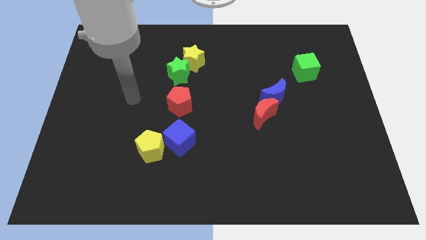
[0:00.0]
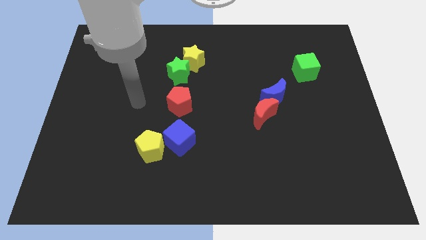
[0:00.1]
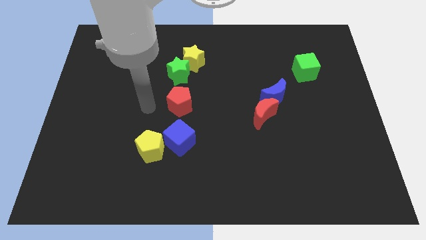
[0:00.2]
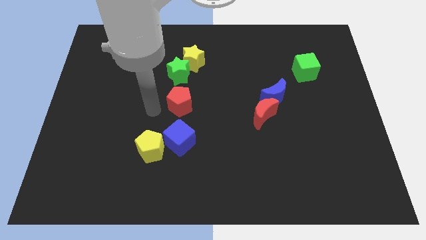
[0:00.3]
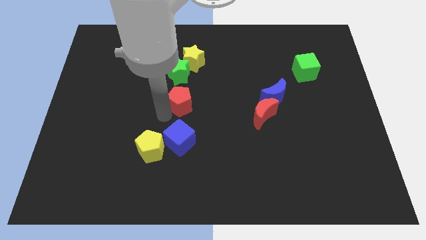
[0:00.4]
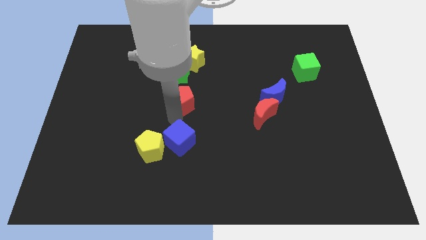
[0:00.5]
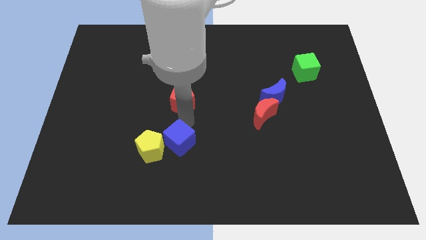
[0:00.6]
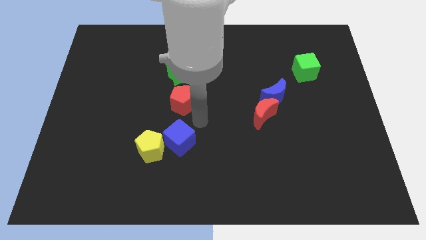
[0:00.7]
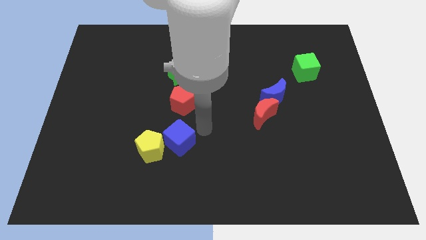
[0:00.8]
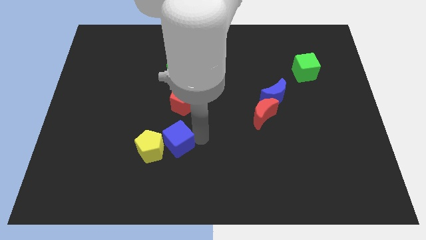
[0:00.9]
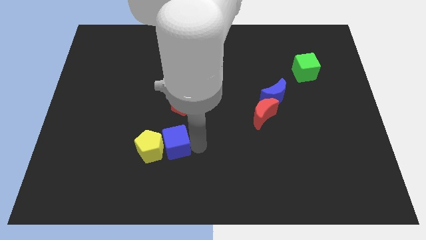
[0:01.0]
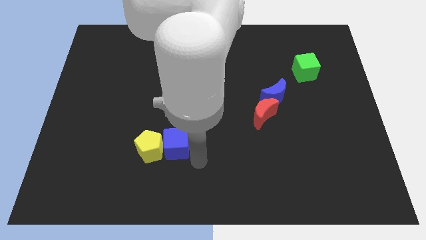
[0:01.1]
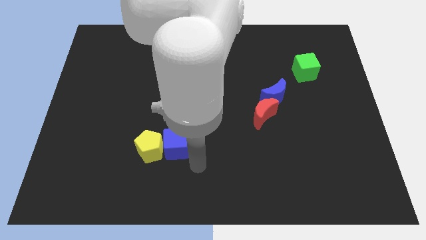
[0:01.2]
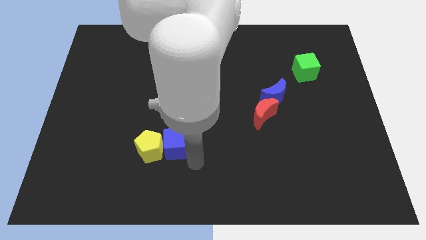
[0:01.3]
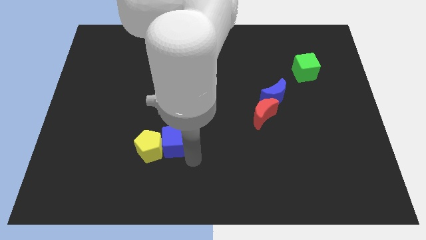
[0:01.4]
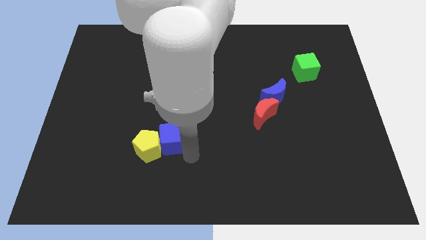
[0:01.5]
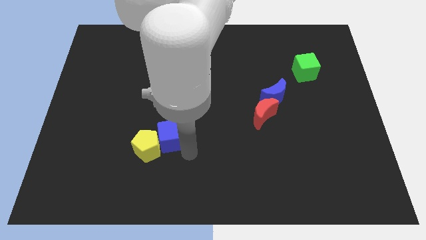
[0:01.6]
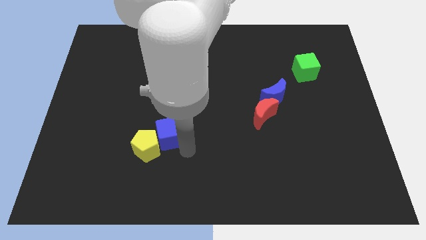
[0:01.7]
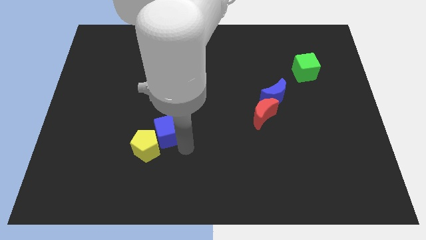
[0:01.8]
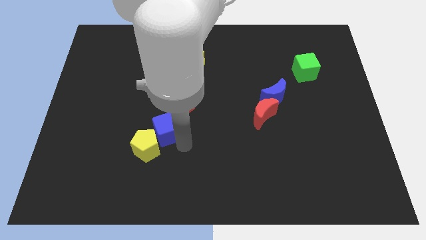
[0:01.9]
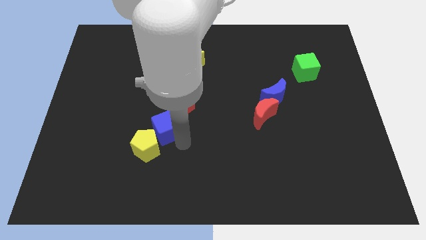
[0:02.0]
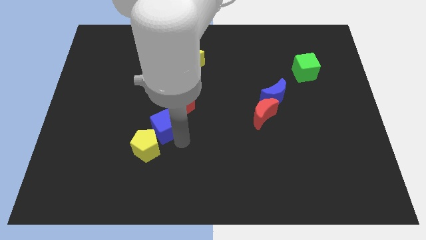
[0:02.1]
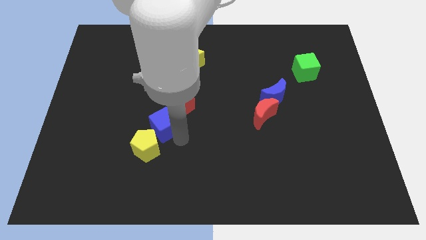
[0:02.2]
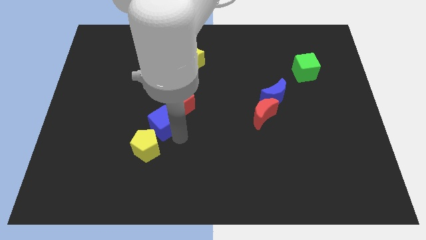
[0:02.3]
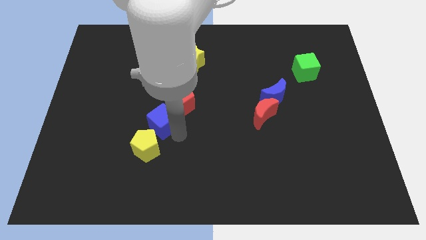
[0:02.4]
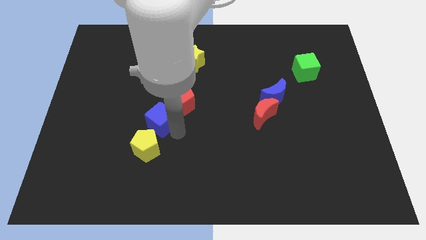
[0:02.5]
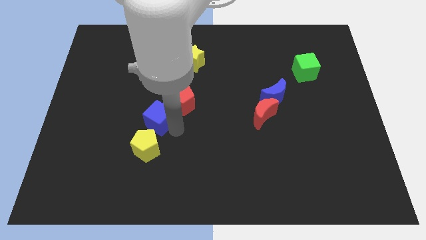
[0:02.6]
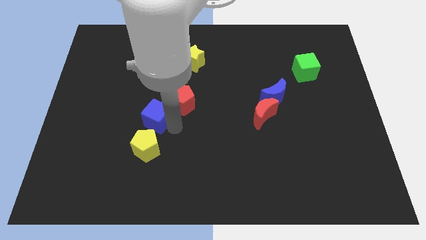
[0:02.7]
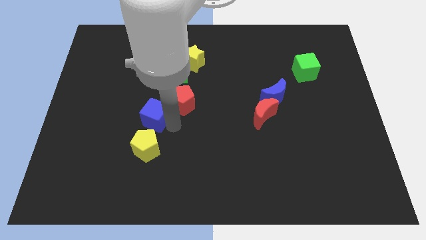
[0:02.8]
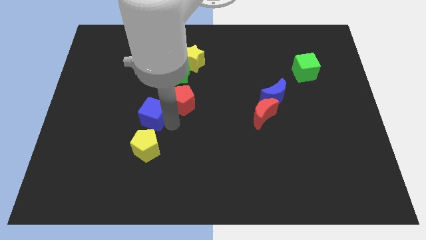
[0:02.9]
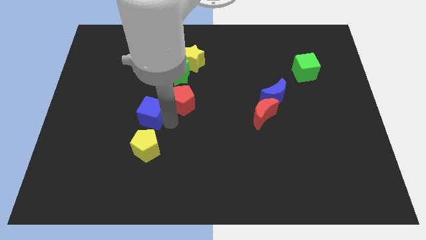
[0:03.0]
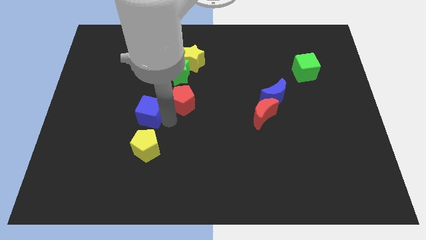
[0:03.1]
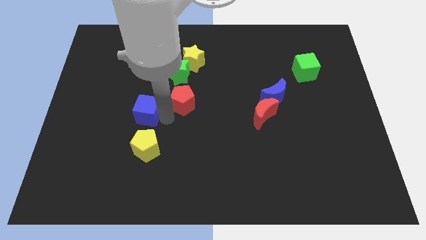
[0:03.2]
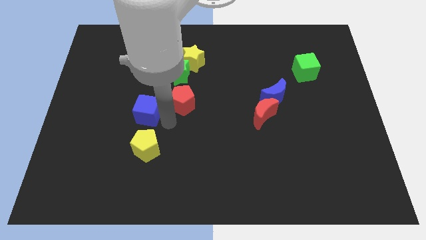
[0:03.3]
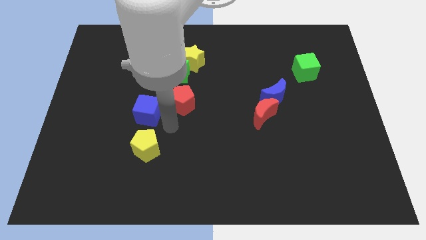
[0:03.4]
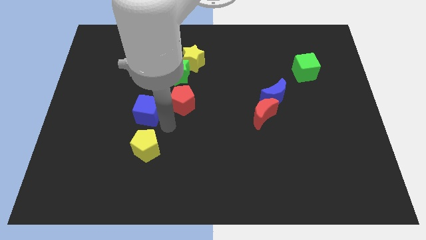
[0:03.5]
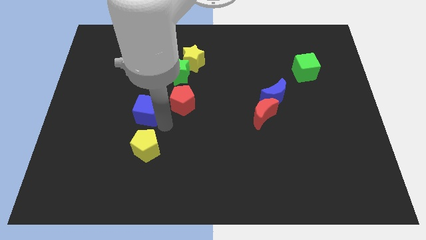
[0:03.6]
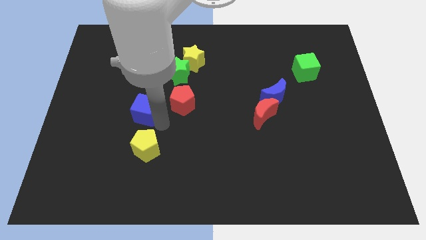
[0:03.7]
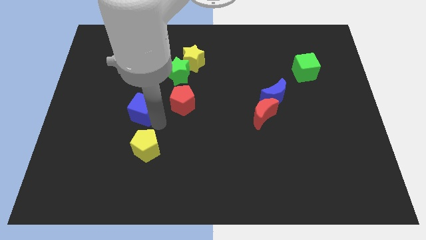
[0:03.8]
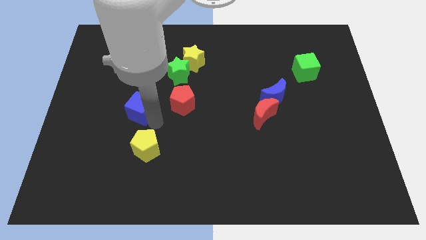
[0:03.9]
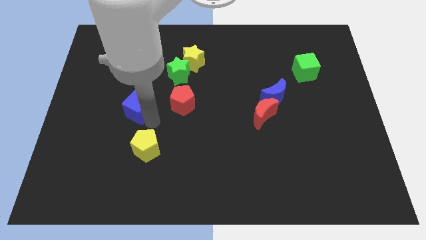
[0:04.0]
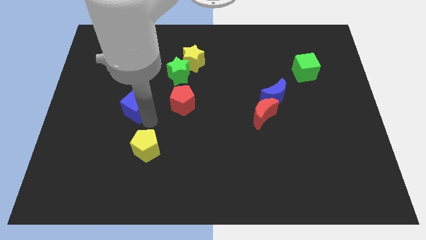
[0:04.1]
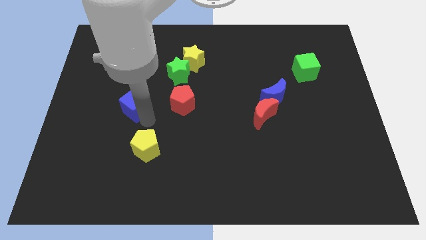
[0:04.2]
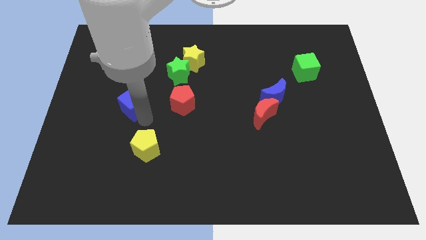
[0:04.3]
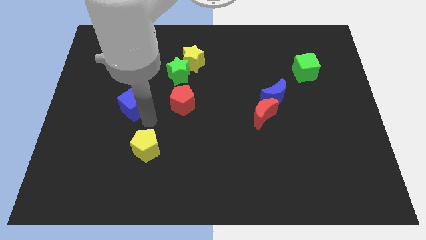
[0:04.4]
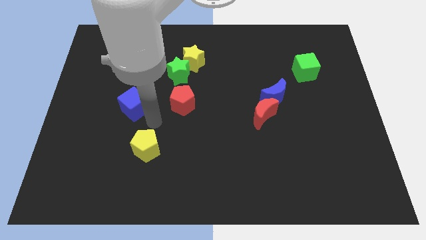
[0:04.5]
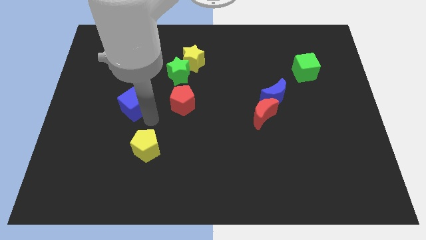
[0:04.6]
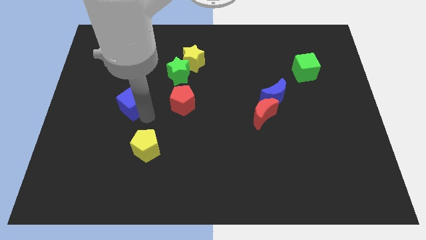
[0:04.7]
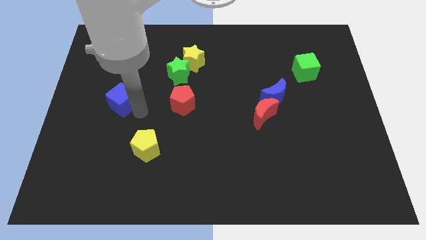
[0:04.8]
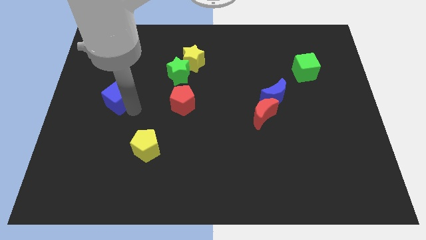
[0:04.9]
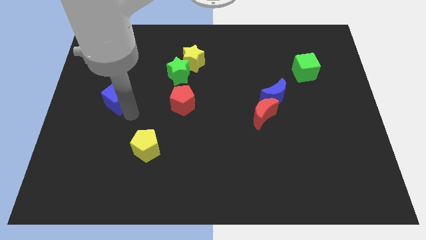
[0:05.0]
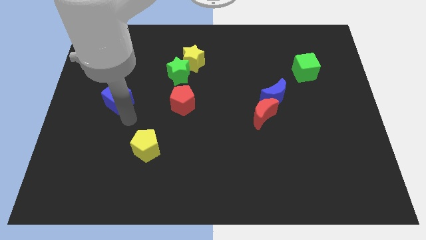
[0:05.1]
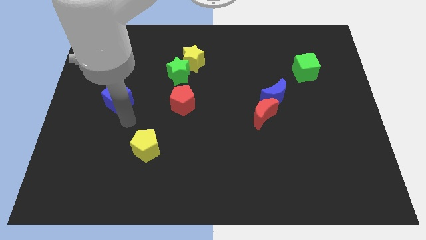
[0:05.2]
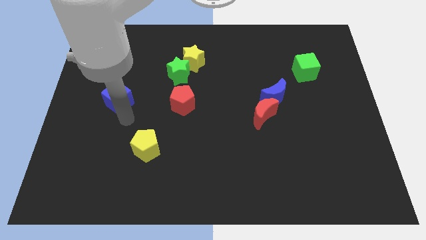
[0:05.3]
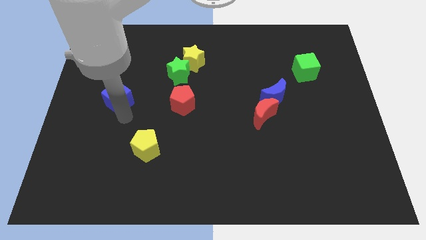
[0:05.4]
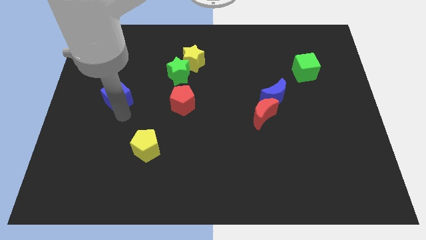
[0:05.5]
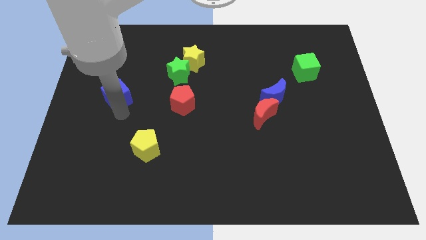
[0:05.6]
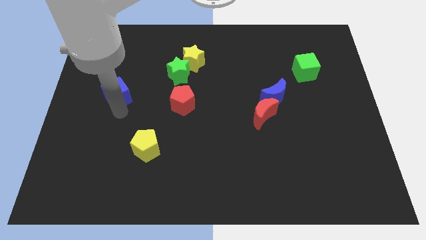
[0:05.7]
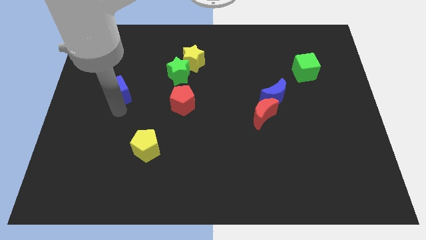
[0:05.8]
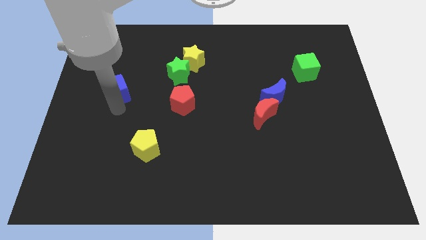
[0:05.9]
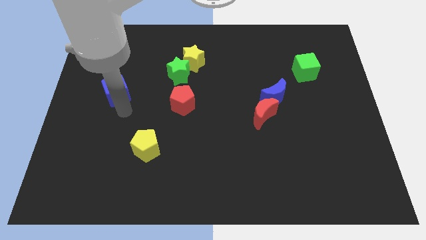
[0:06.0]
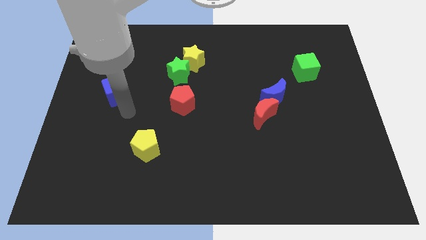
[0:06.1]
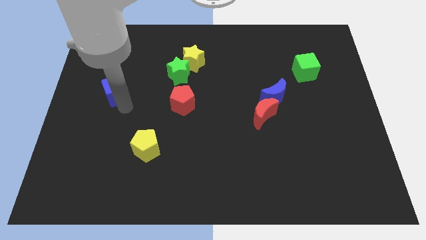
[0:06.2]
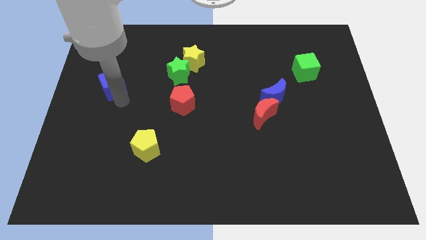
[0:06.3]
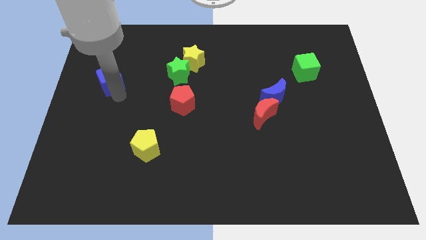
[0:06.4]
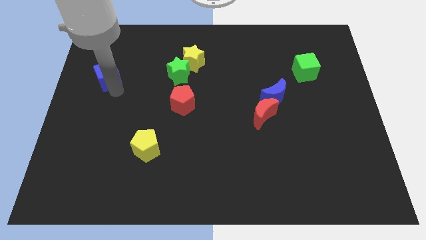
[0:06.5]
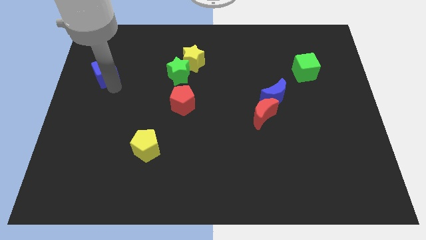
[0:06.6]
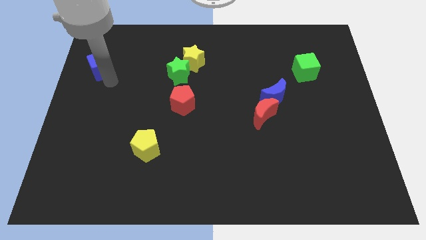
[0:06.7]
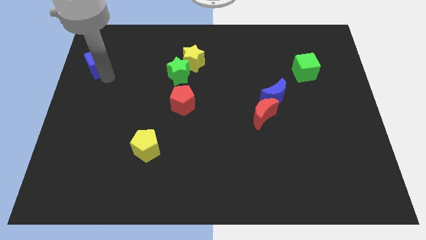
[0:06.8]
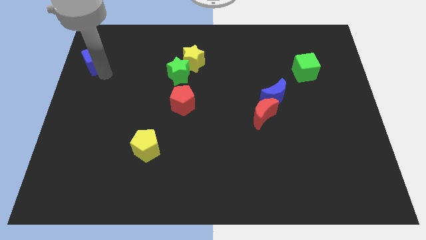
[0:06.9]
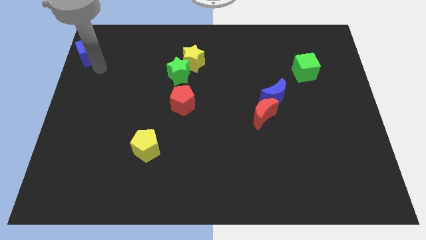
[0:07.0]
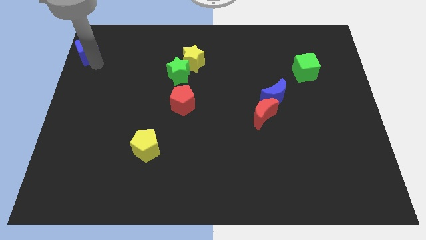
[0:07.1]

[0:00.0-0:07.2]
put the blue cube to the top left
